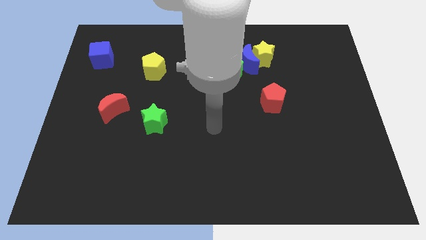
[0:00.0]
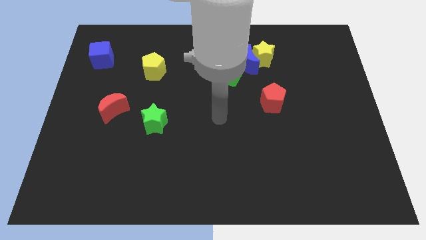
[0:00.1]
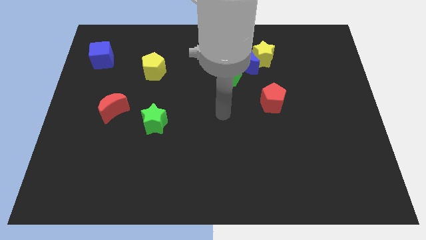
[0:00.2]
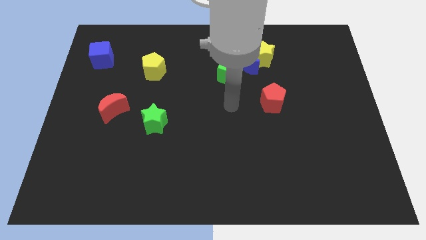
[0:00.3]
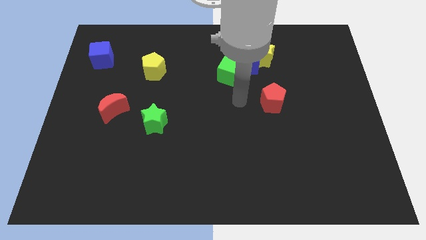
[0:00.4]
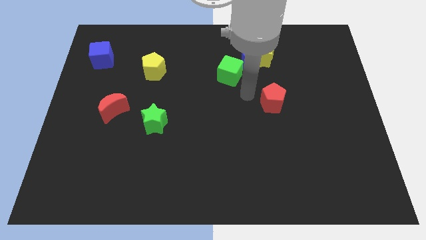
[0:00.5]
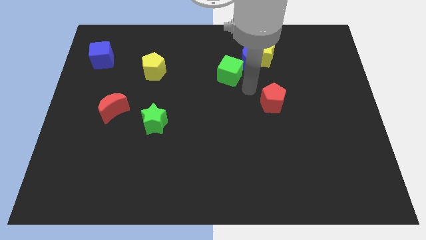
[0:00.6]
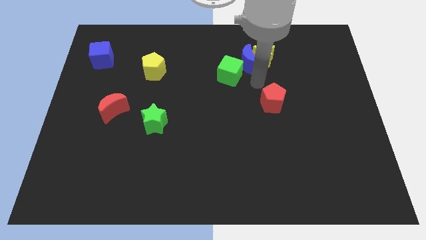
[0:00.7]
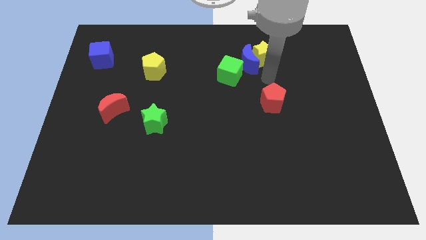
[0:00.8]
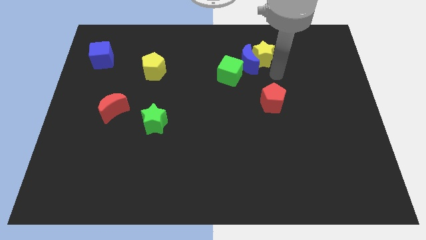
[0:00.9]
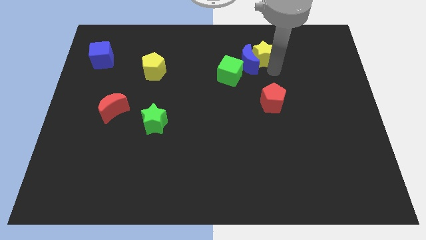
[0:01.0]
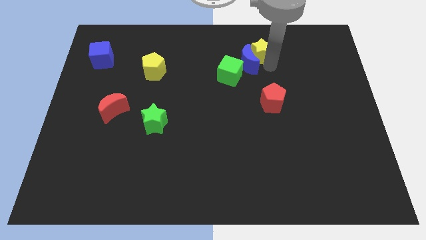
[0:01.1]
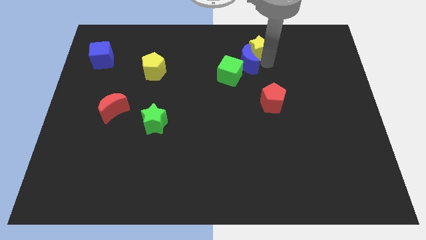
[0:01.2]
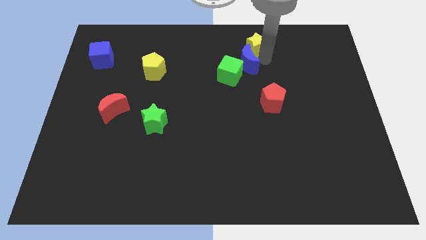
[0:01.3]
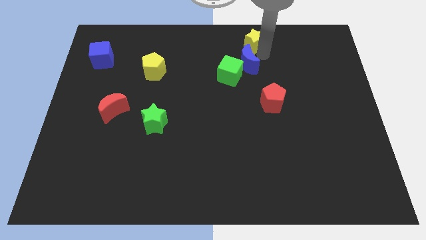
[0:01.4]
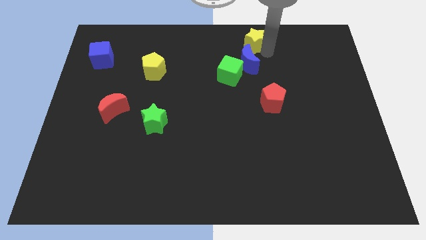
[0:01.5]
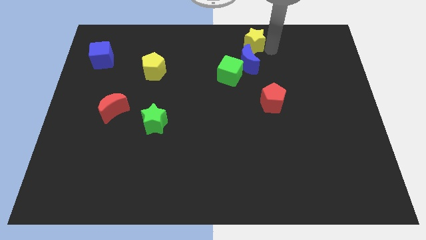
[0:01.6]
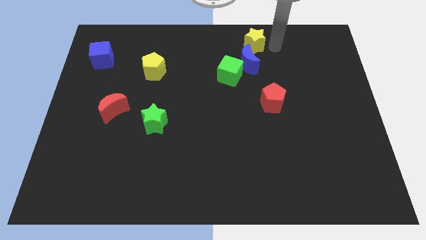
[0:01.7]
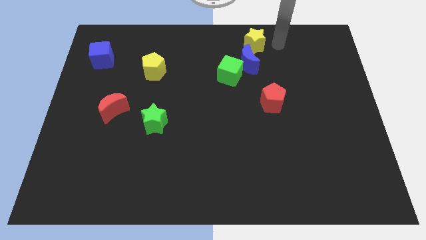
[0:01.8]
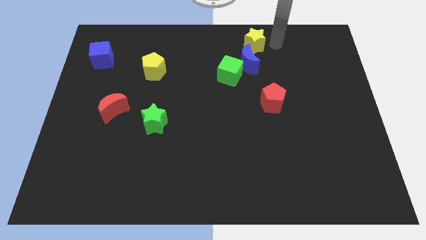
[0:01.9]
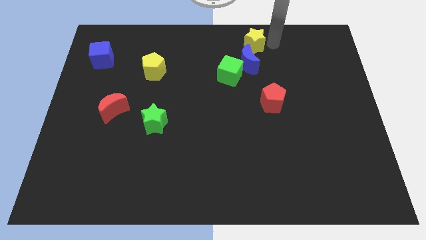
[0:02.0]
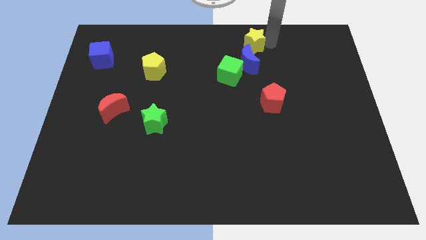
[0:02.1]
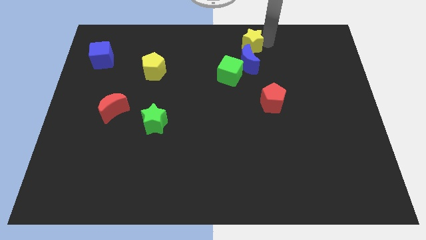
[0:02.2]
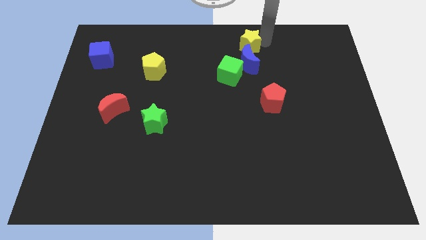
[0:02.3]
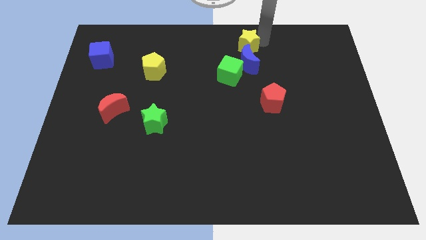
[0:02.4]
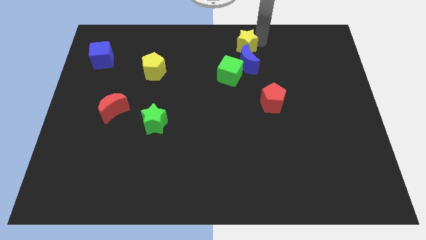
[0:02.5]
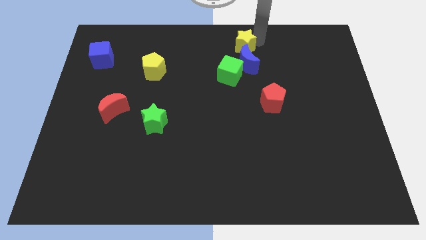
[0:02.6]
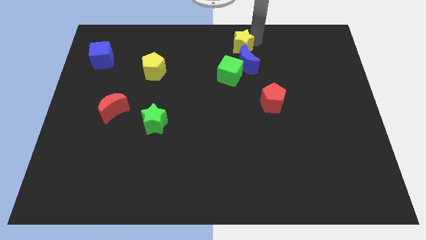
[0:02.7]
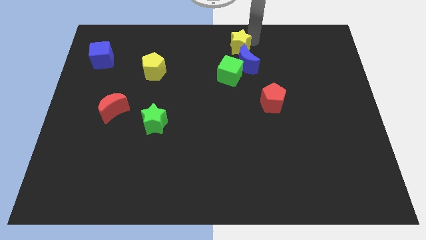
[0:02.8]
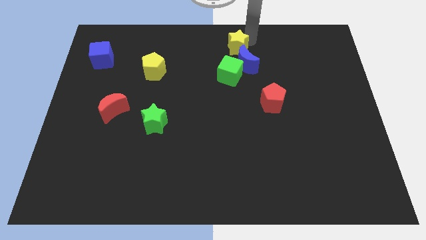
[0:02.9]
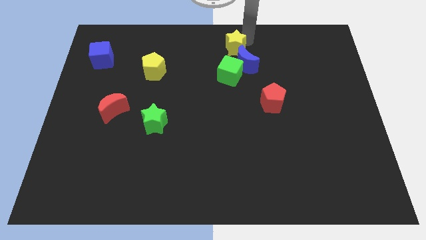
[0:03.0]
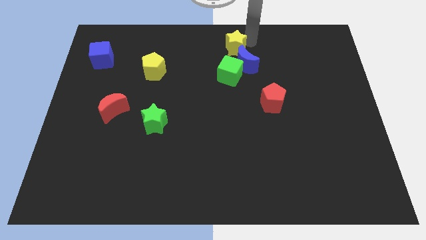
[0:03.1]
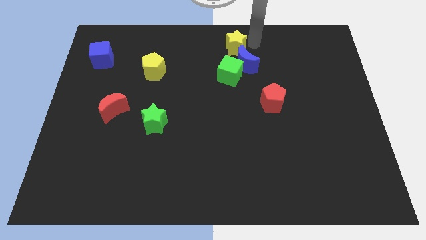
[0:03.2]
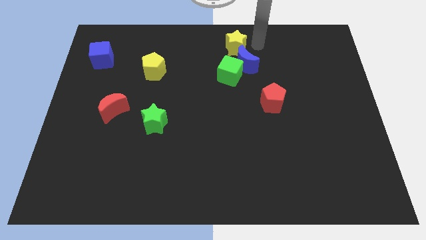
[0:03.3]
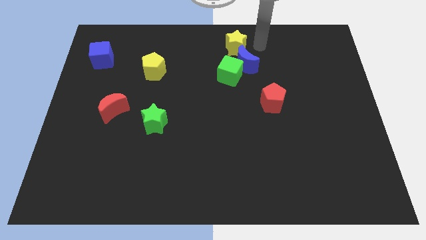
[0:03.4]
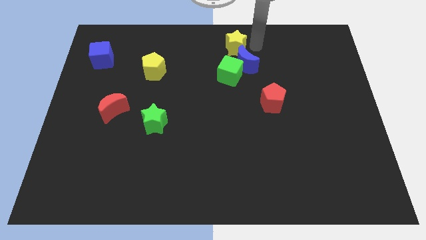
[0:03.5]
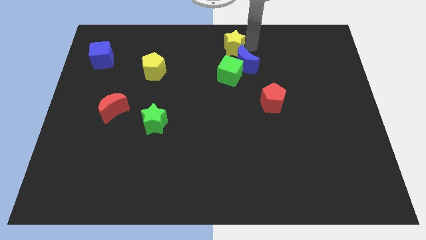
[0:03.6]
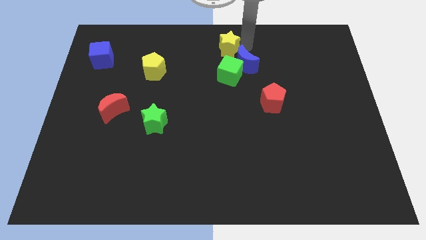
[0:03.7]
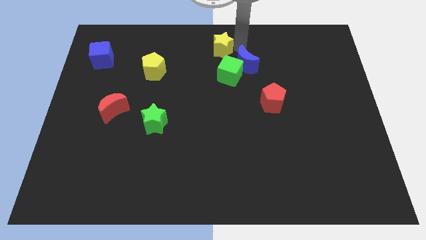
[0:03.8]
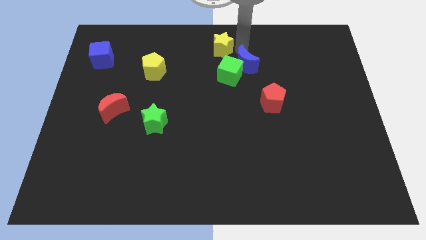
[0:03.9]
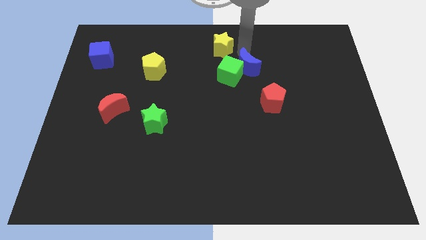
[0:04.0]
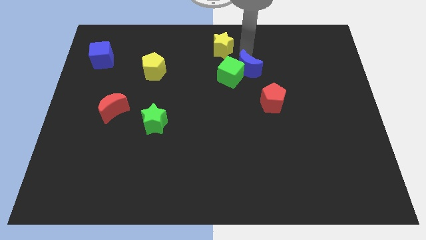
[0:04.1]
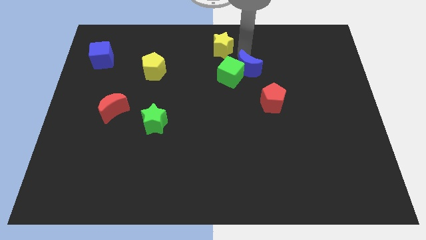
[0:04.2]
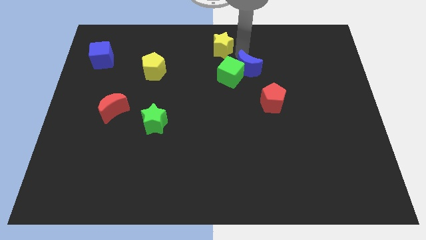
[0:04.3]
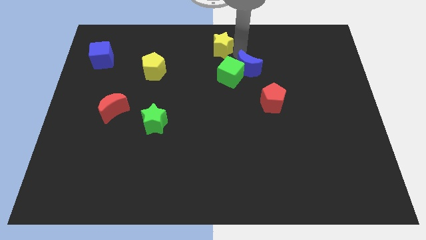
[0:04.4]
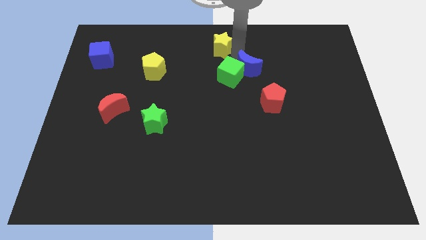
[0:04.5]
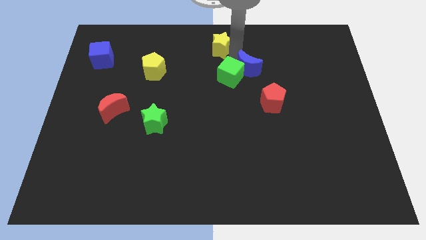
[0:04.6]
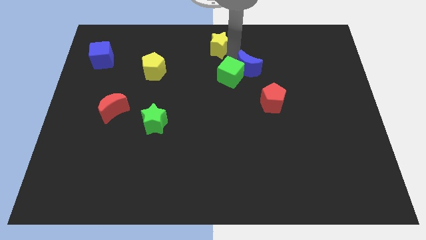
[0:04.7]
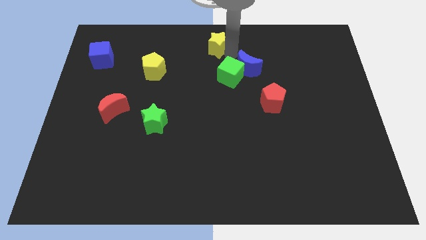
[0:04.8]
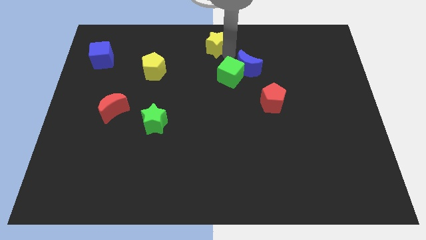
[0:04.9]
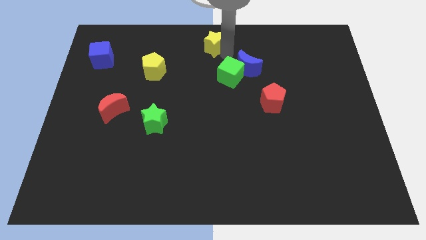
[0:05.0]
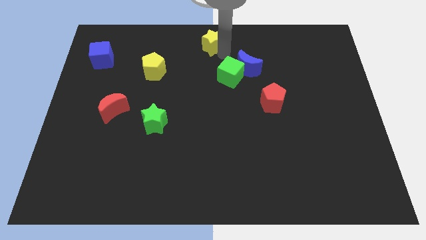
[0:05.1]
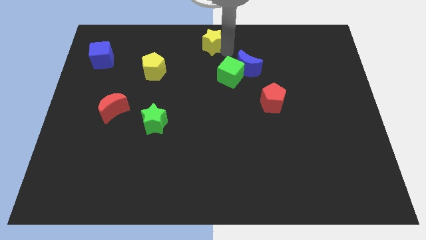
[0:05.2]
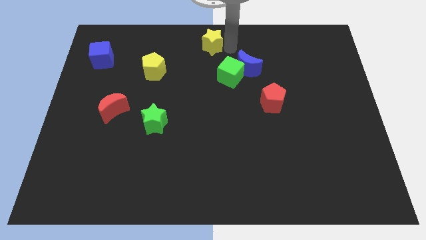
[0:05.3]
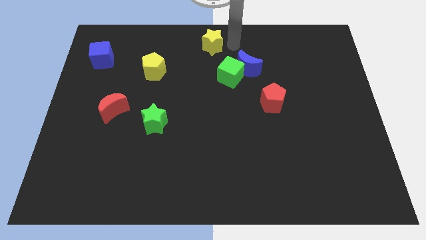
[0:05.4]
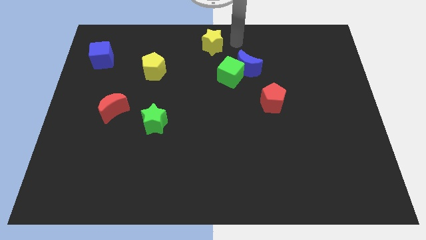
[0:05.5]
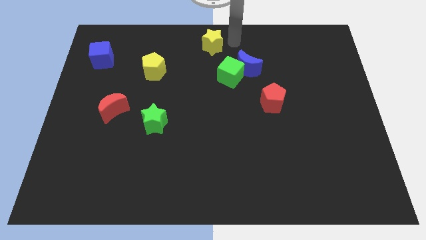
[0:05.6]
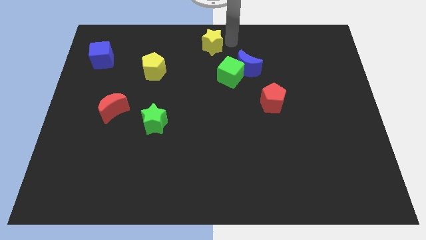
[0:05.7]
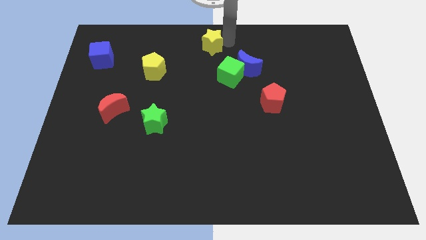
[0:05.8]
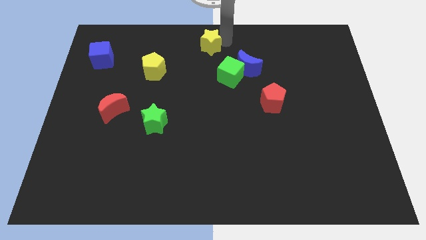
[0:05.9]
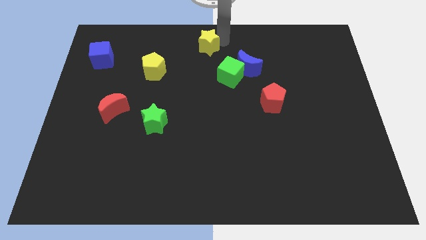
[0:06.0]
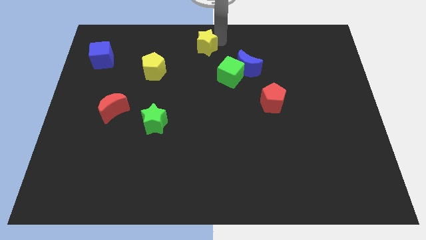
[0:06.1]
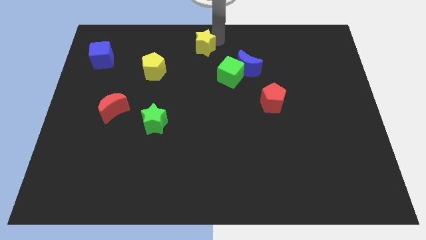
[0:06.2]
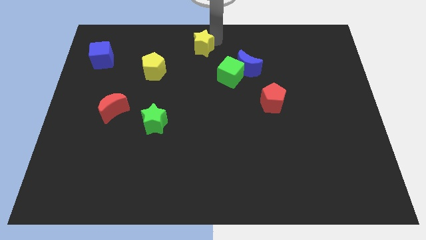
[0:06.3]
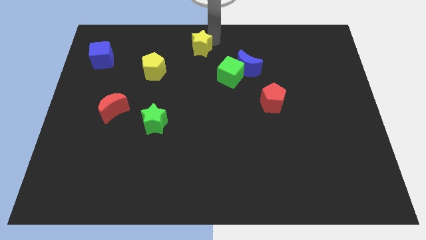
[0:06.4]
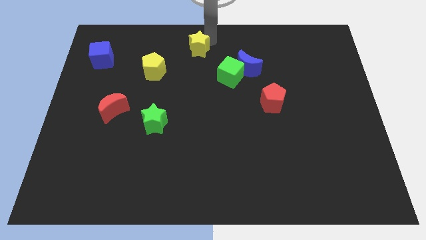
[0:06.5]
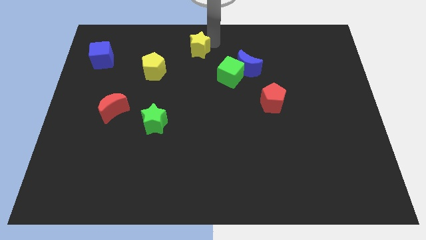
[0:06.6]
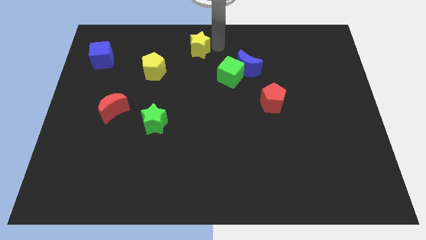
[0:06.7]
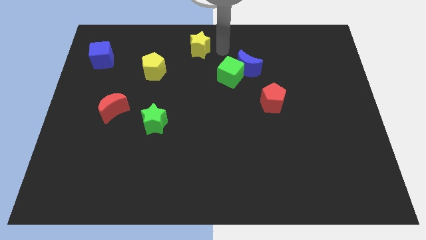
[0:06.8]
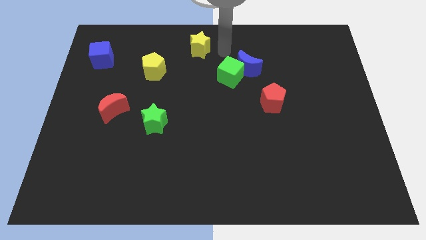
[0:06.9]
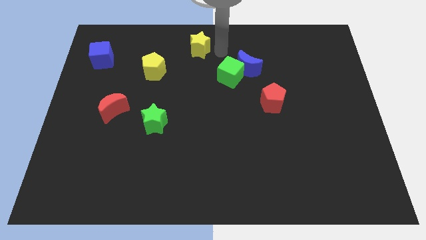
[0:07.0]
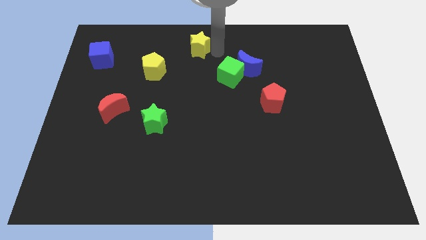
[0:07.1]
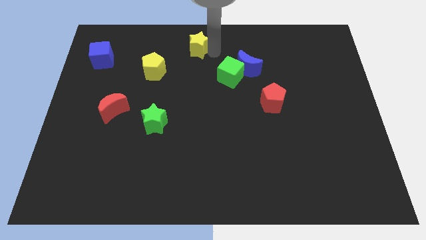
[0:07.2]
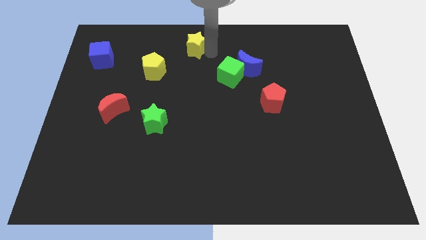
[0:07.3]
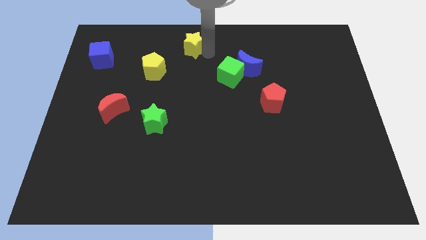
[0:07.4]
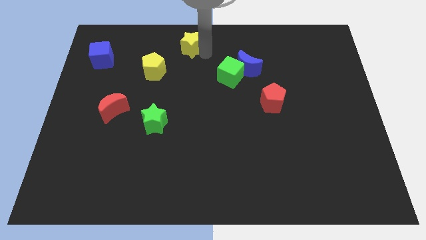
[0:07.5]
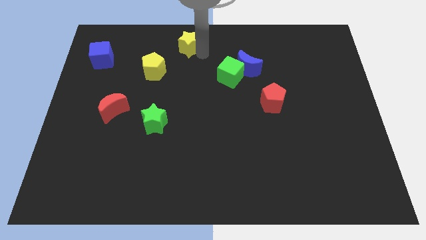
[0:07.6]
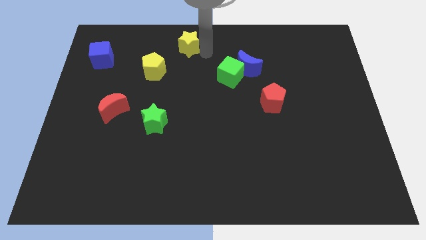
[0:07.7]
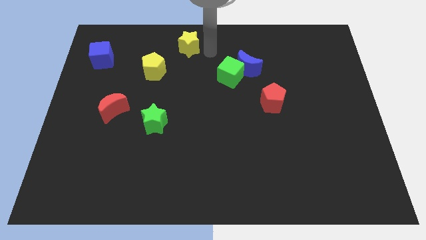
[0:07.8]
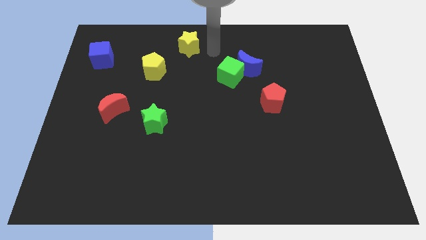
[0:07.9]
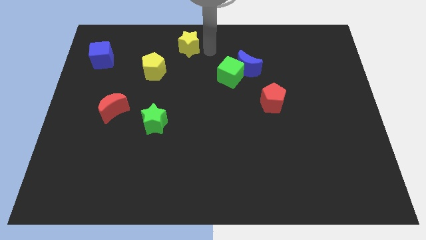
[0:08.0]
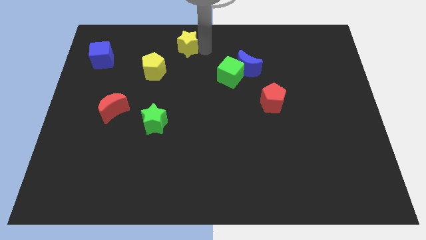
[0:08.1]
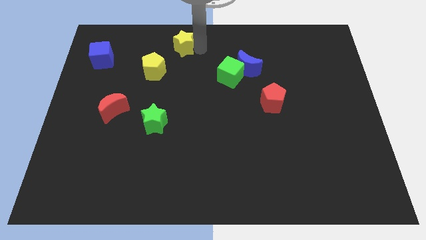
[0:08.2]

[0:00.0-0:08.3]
move the yellow star left
